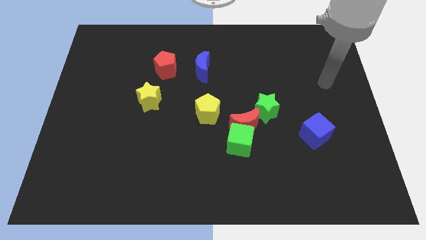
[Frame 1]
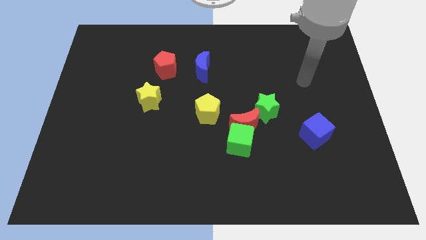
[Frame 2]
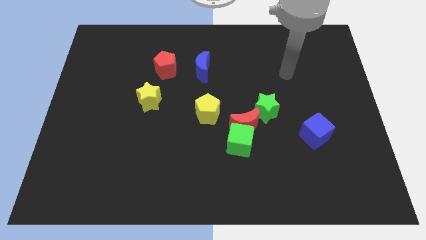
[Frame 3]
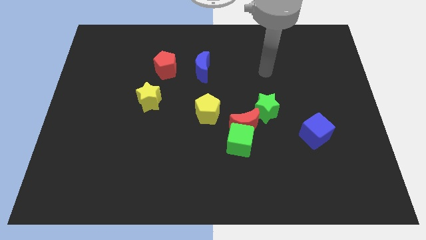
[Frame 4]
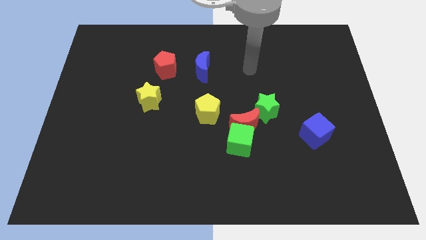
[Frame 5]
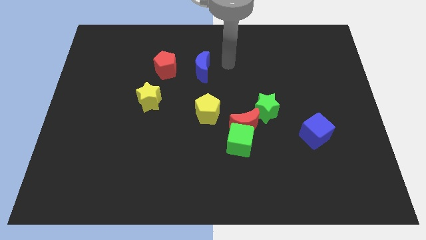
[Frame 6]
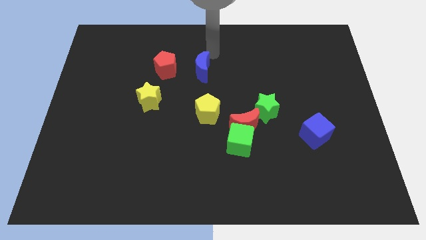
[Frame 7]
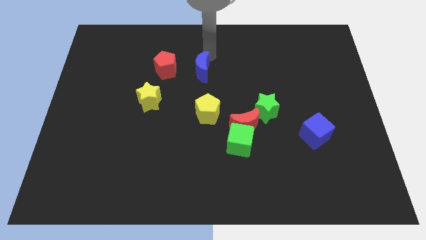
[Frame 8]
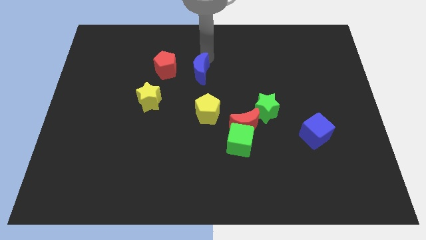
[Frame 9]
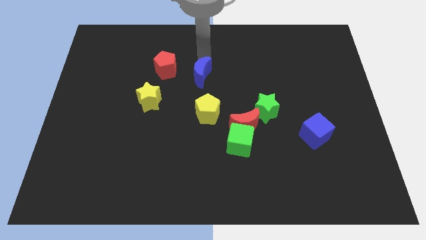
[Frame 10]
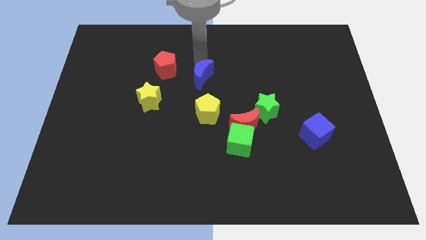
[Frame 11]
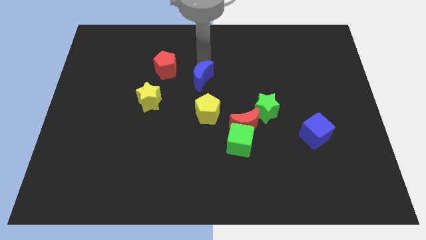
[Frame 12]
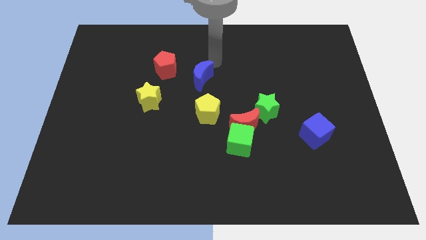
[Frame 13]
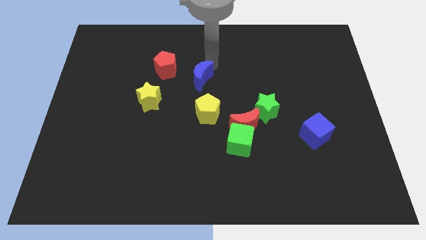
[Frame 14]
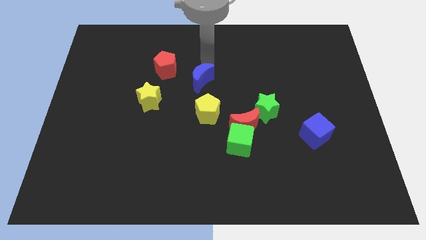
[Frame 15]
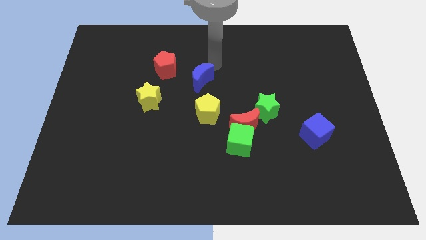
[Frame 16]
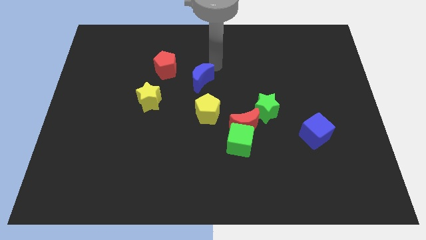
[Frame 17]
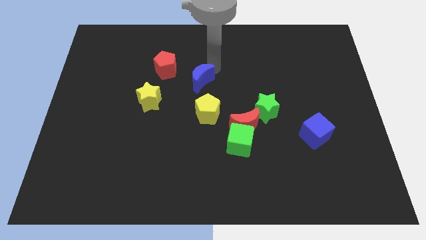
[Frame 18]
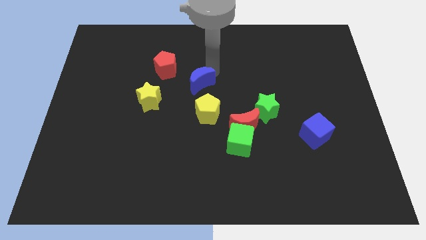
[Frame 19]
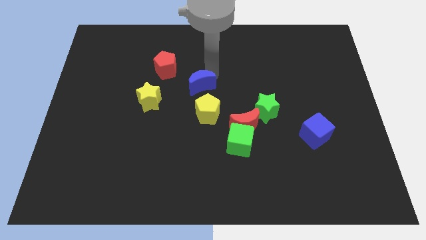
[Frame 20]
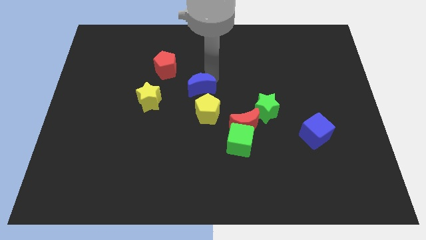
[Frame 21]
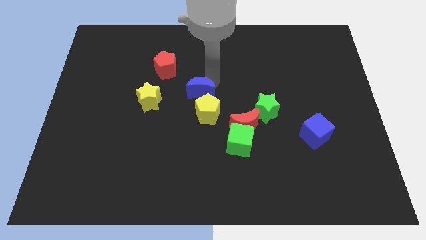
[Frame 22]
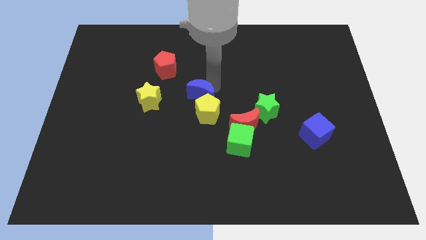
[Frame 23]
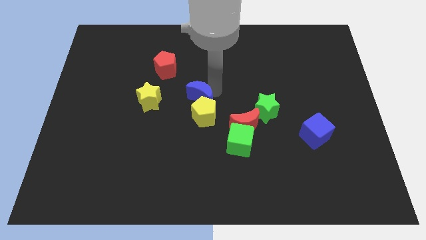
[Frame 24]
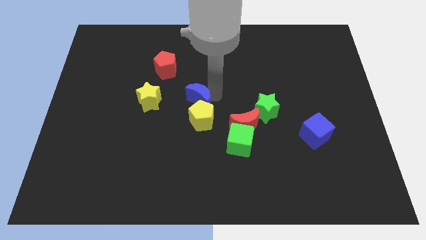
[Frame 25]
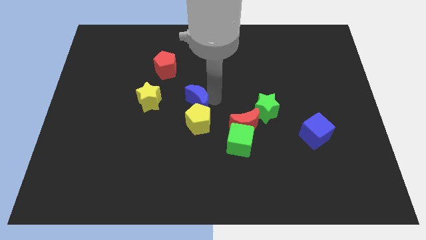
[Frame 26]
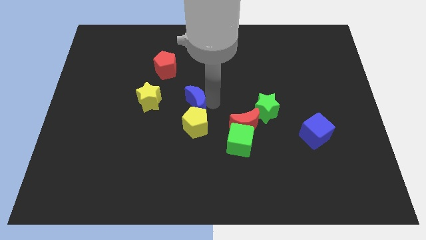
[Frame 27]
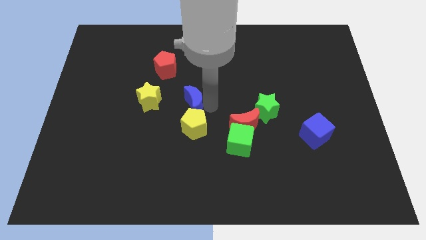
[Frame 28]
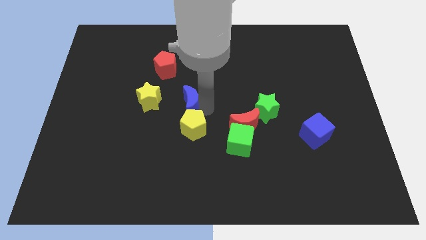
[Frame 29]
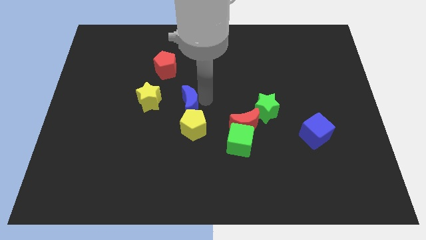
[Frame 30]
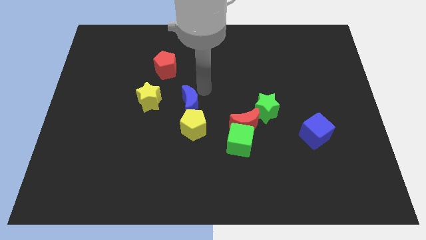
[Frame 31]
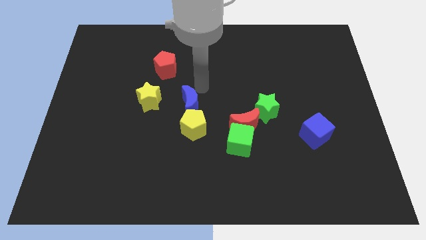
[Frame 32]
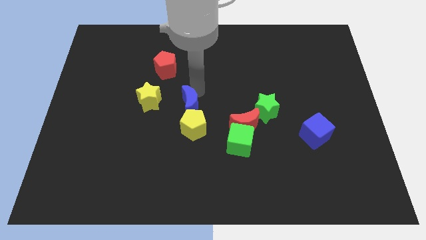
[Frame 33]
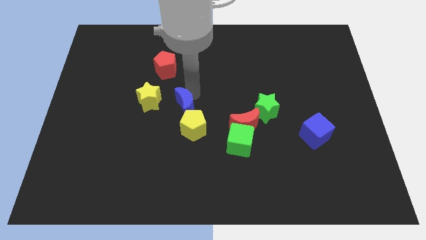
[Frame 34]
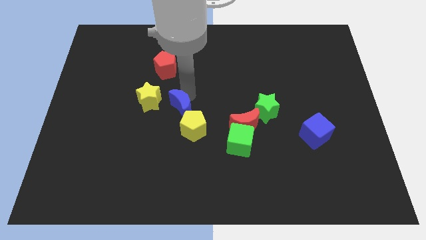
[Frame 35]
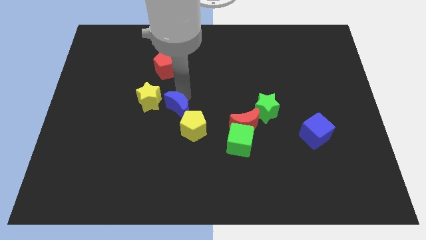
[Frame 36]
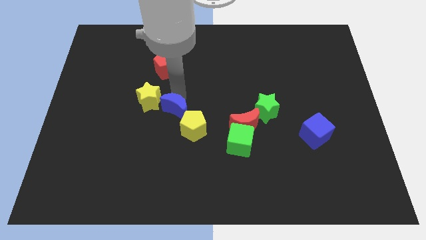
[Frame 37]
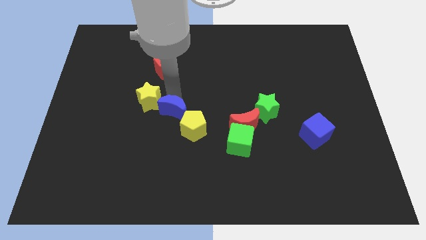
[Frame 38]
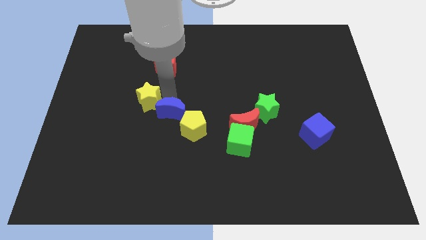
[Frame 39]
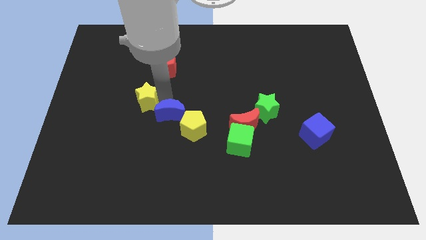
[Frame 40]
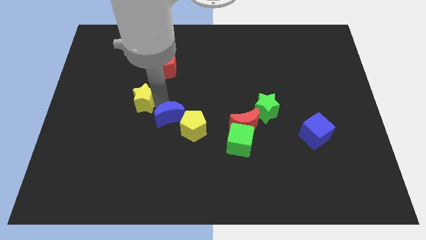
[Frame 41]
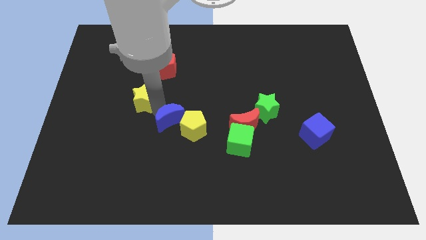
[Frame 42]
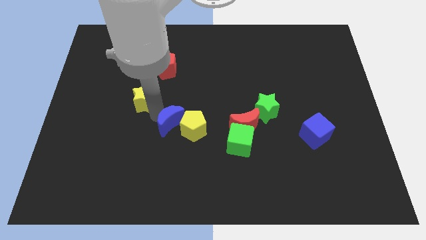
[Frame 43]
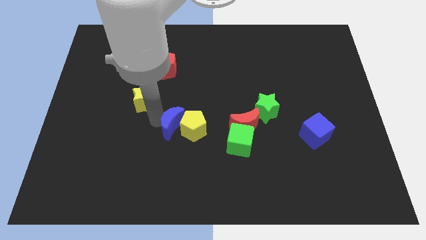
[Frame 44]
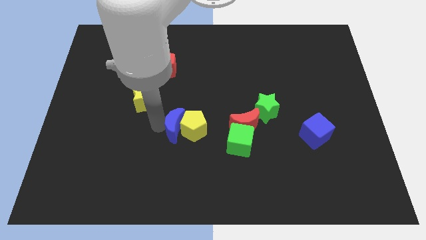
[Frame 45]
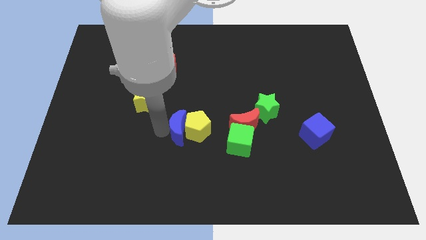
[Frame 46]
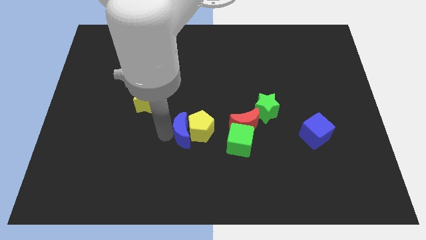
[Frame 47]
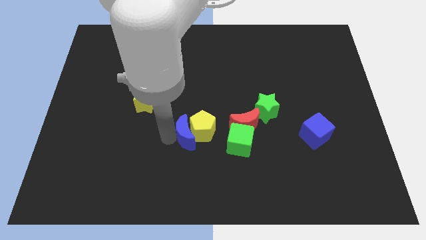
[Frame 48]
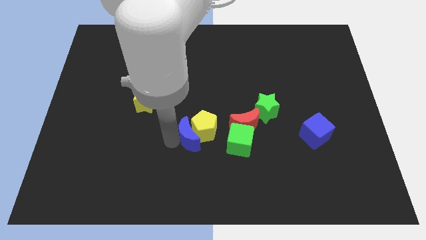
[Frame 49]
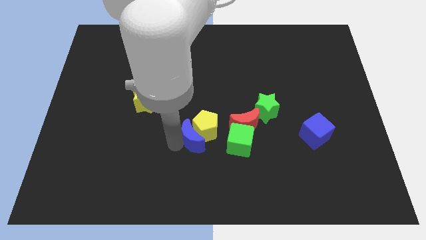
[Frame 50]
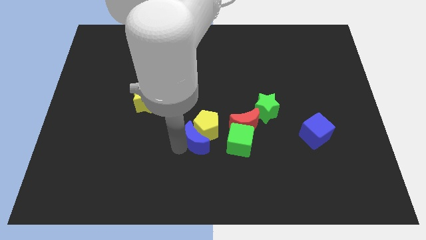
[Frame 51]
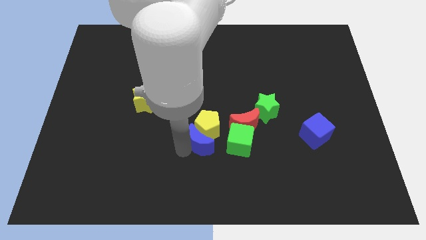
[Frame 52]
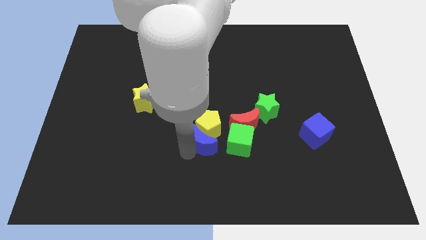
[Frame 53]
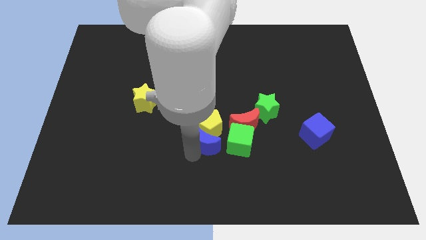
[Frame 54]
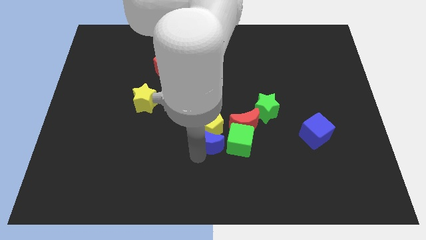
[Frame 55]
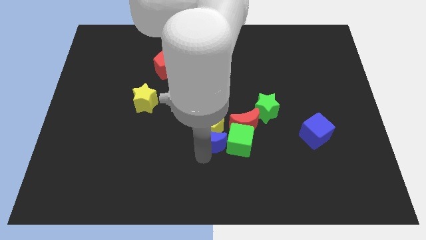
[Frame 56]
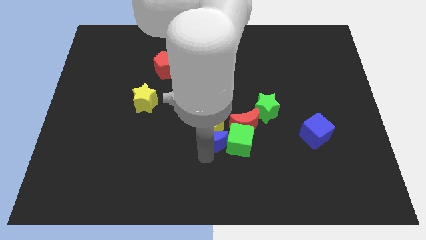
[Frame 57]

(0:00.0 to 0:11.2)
move the blue moon to the green cube

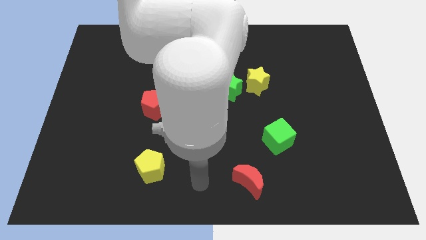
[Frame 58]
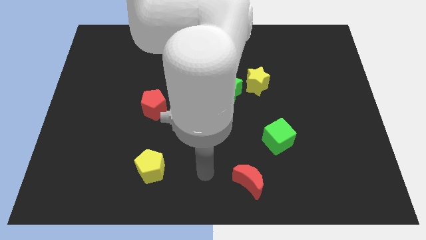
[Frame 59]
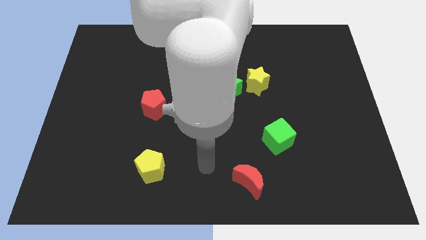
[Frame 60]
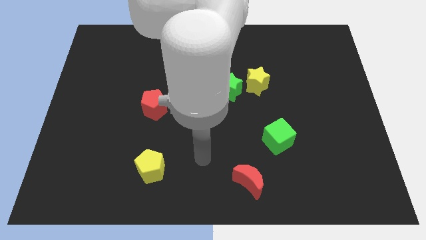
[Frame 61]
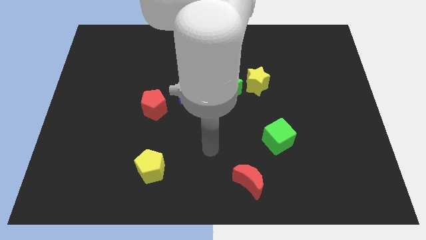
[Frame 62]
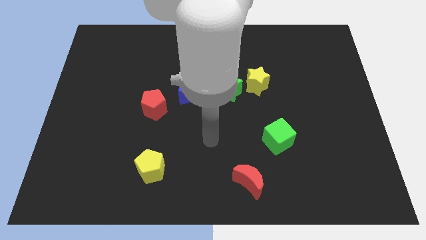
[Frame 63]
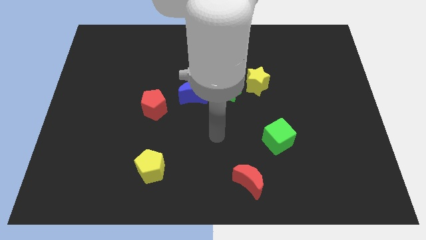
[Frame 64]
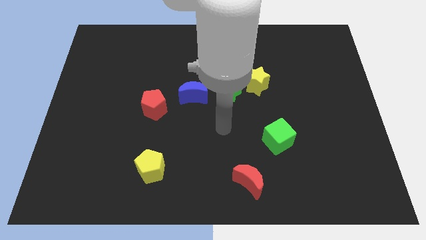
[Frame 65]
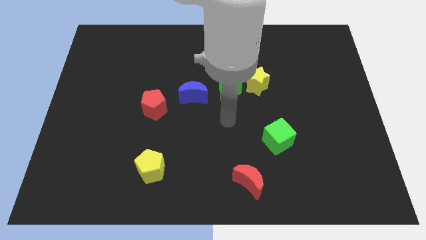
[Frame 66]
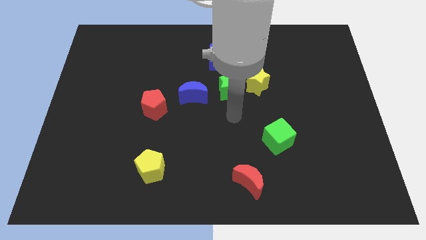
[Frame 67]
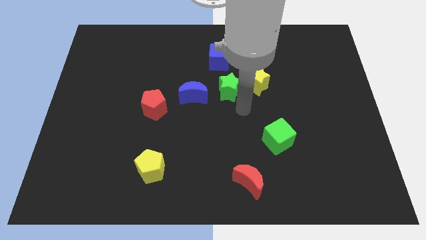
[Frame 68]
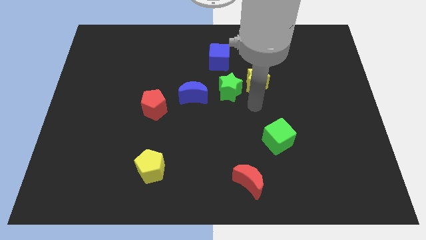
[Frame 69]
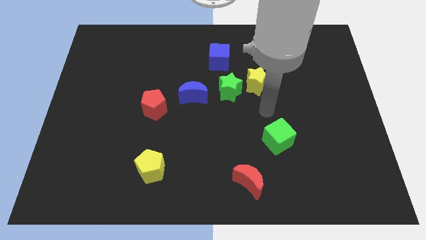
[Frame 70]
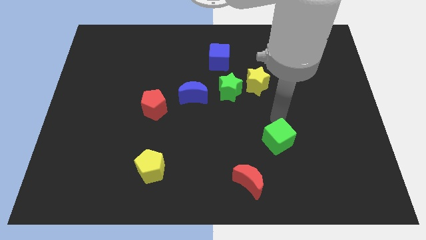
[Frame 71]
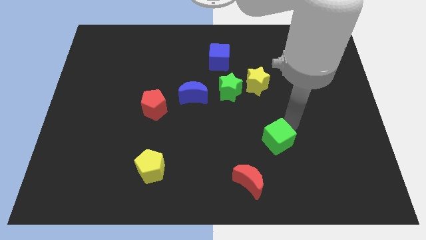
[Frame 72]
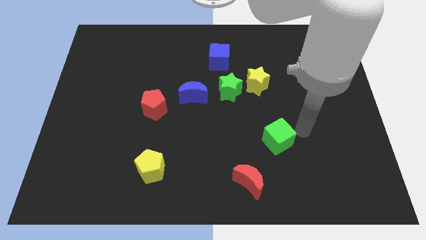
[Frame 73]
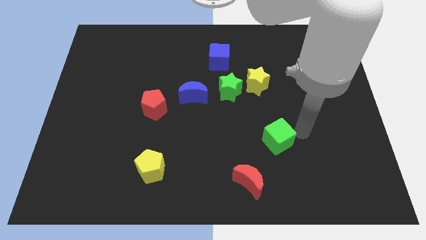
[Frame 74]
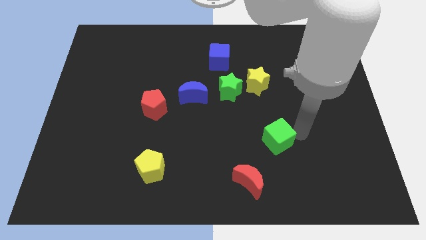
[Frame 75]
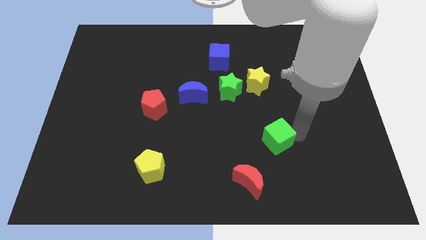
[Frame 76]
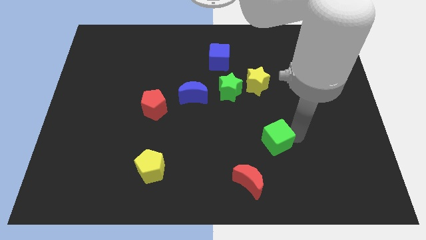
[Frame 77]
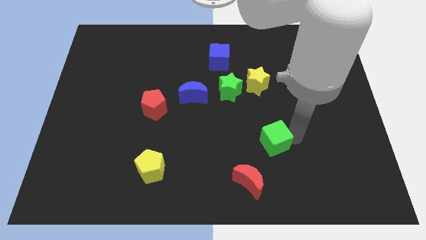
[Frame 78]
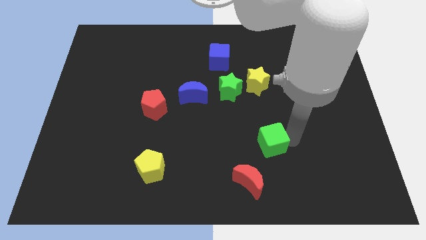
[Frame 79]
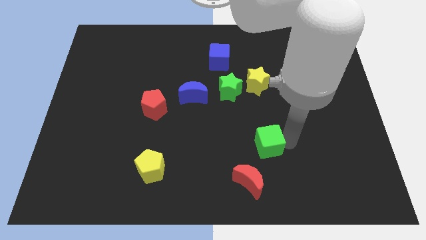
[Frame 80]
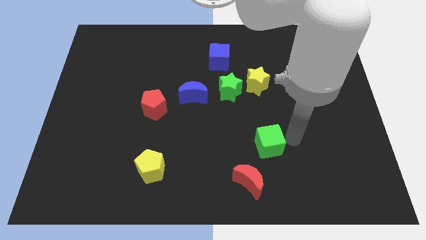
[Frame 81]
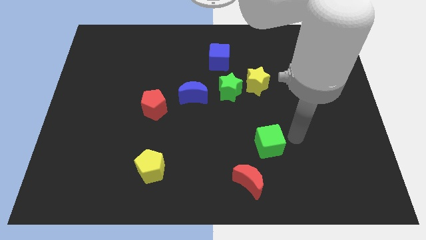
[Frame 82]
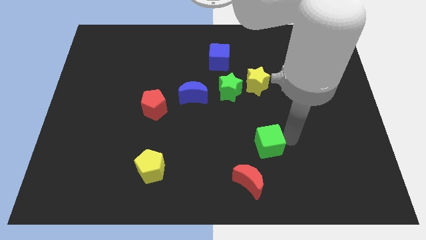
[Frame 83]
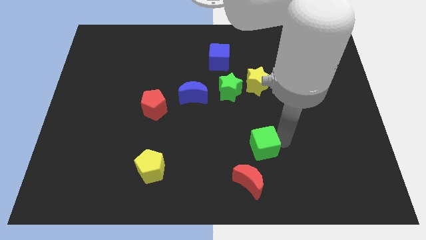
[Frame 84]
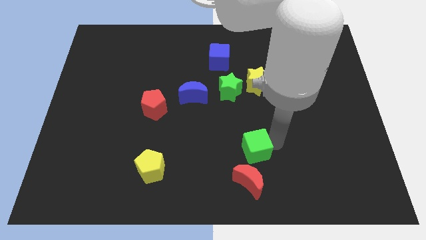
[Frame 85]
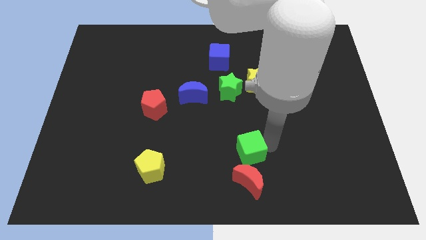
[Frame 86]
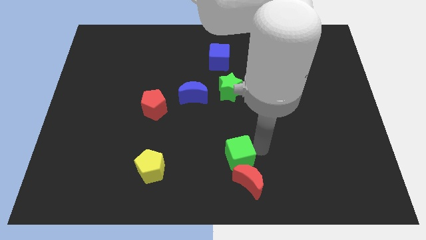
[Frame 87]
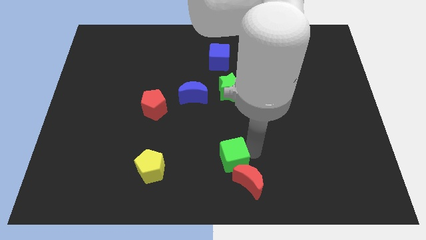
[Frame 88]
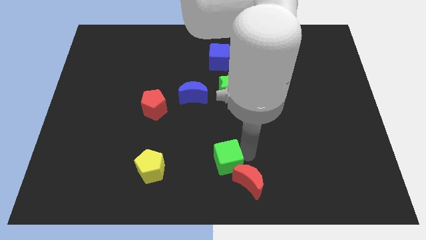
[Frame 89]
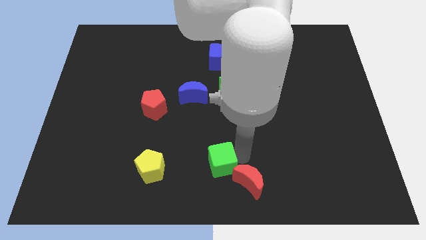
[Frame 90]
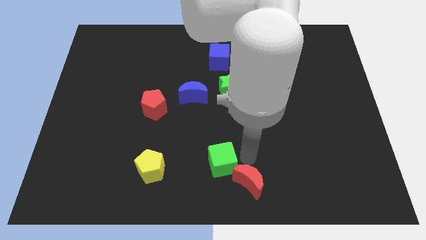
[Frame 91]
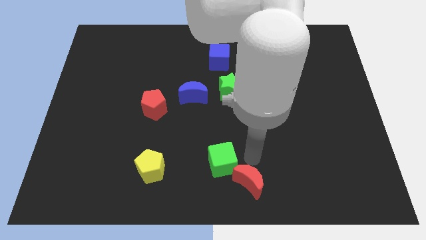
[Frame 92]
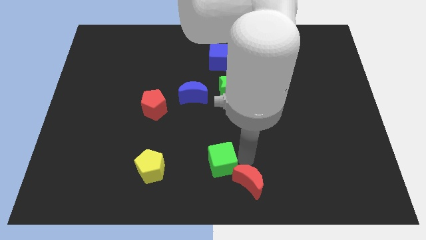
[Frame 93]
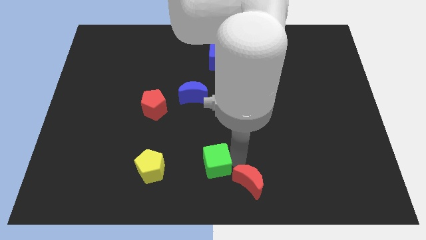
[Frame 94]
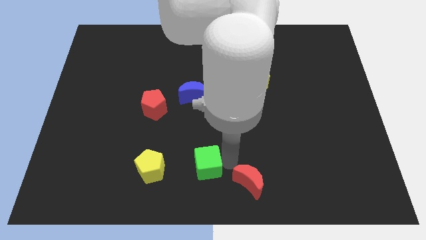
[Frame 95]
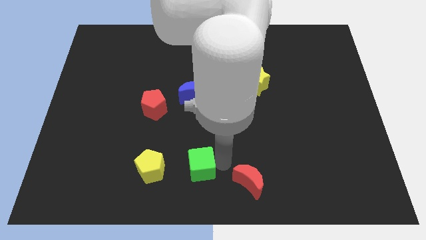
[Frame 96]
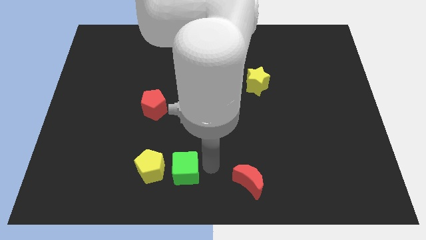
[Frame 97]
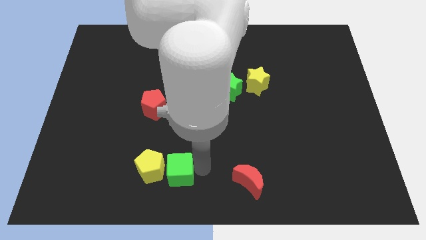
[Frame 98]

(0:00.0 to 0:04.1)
put the green cube towards the yellow pentagon
